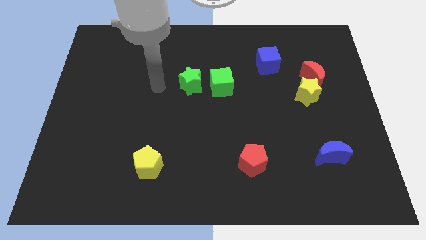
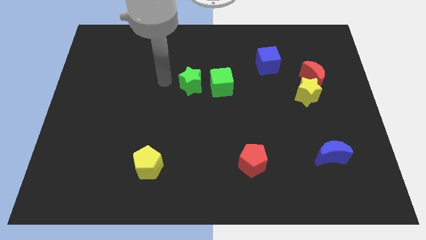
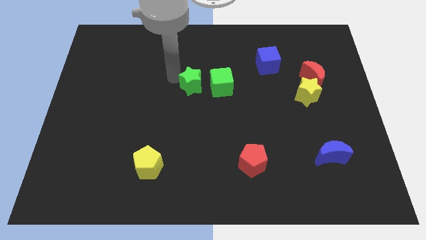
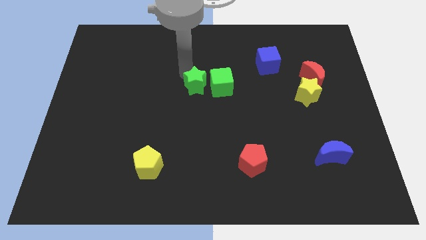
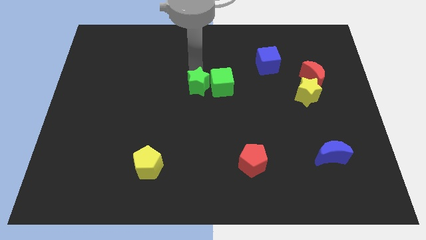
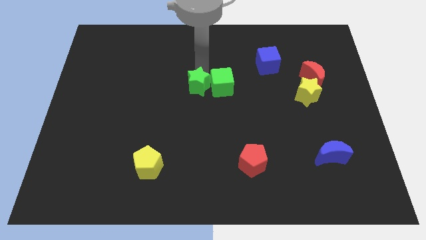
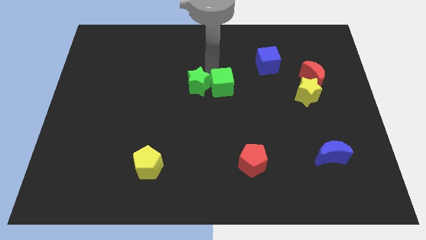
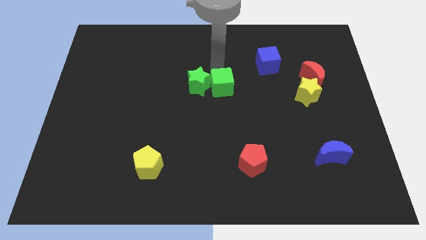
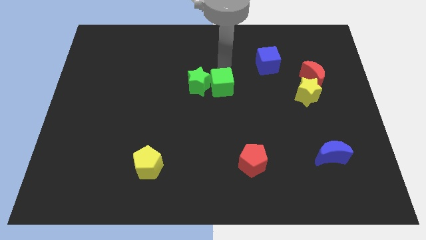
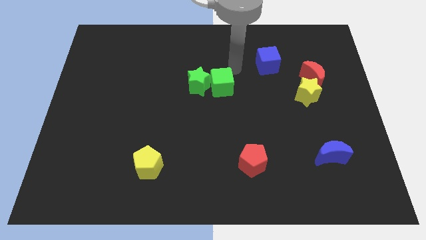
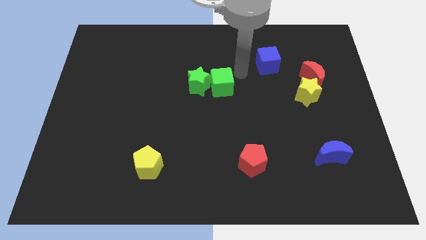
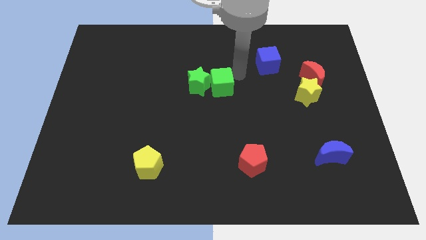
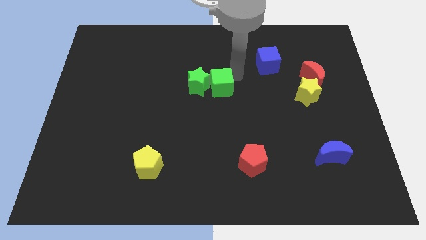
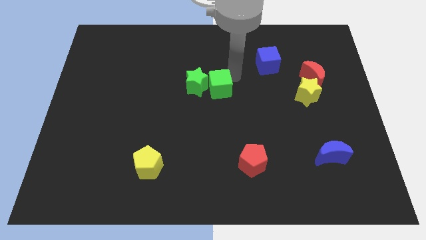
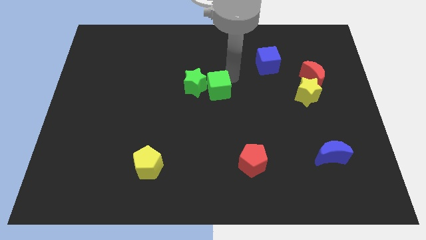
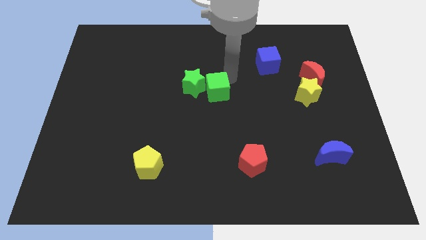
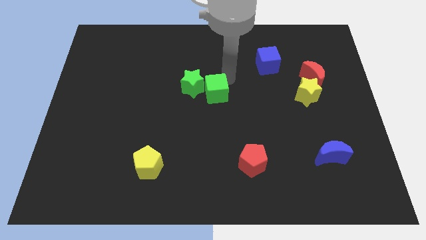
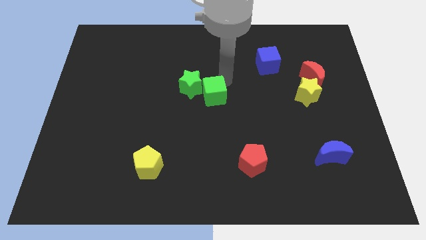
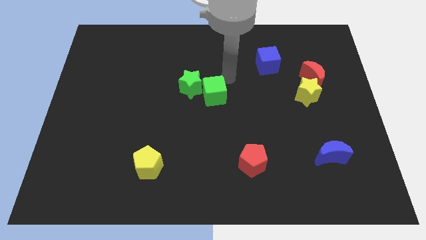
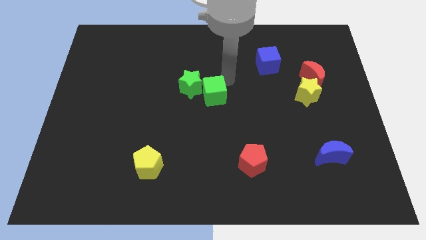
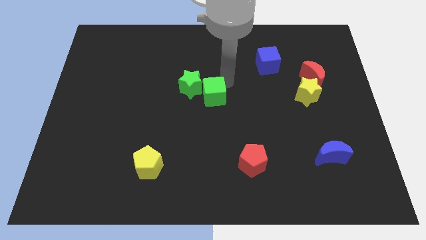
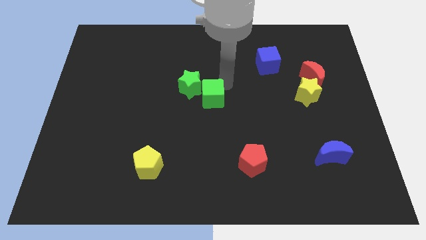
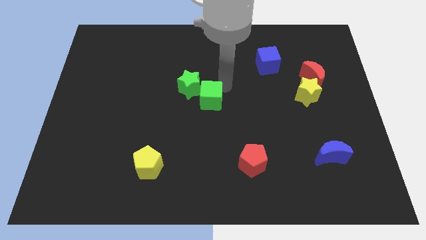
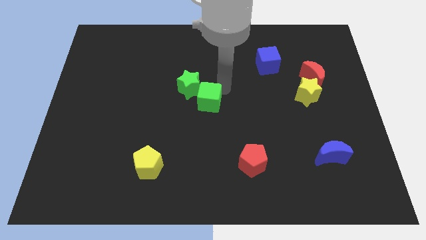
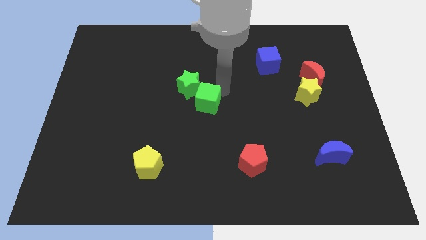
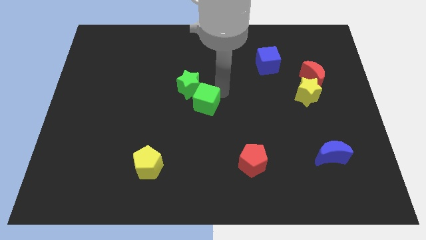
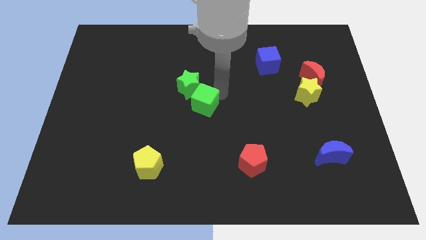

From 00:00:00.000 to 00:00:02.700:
push the green cube a bit down and left

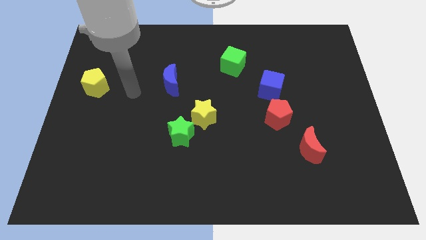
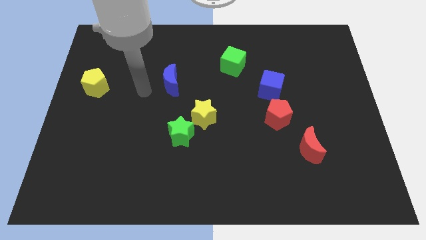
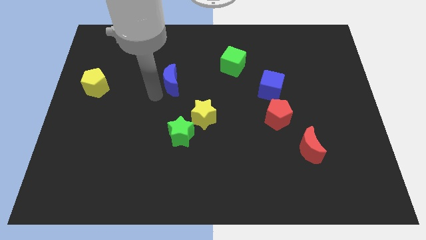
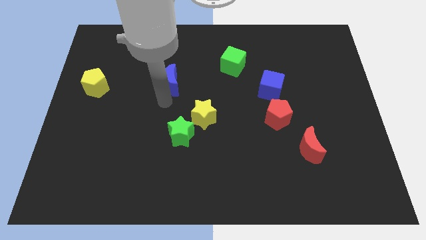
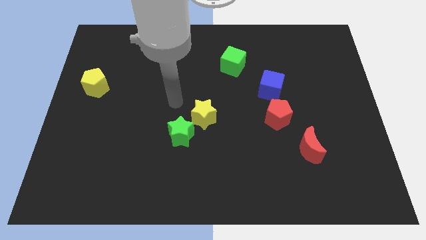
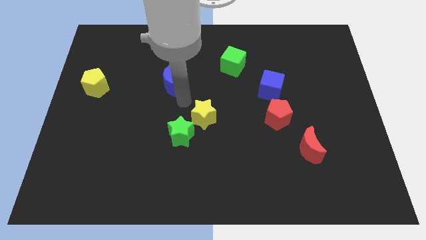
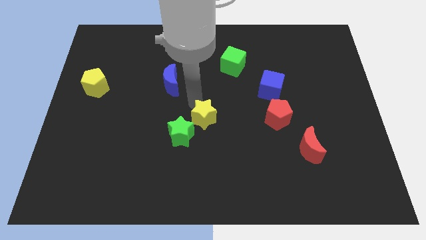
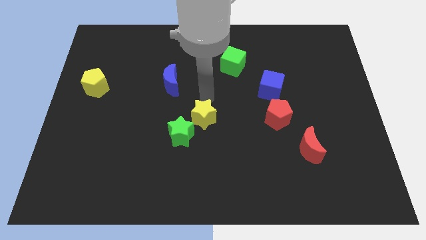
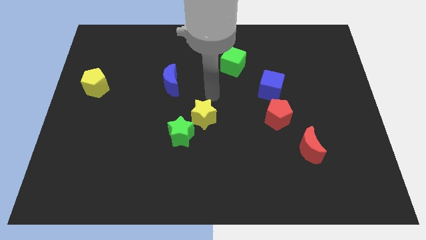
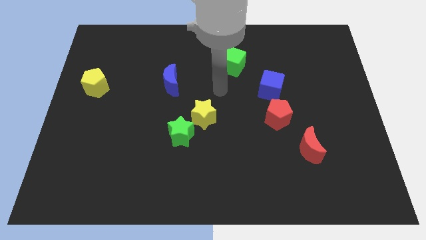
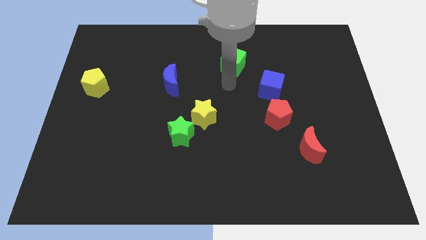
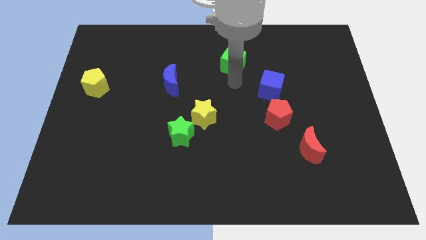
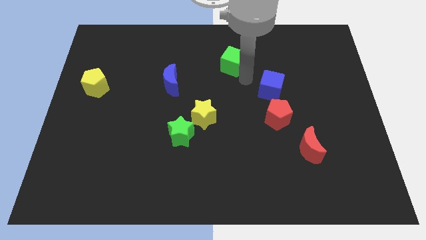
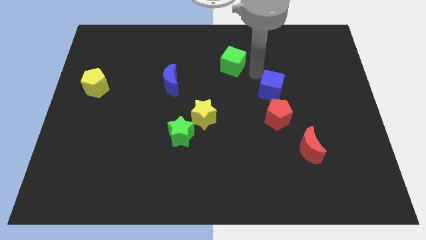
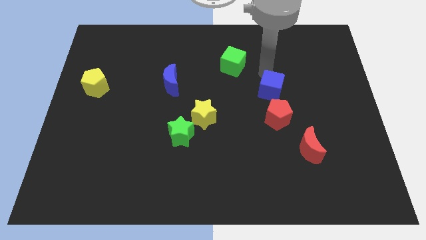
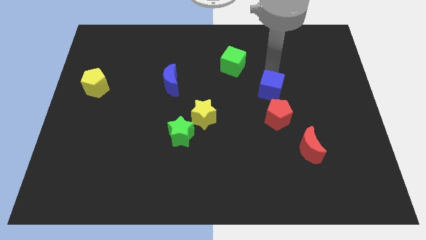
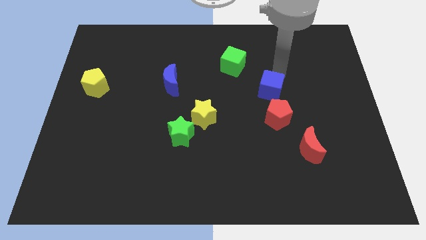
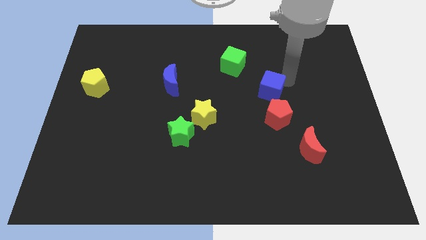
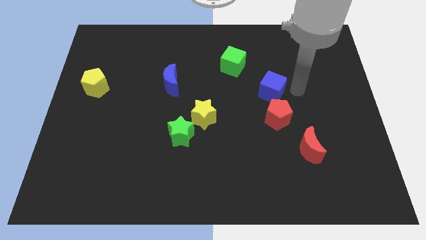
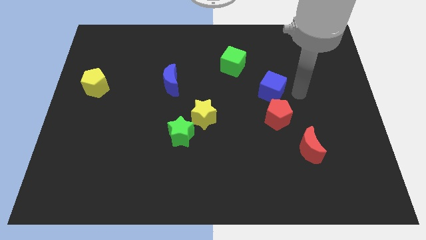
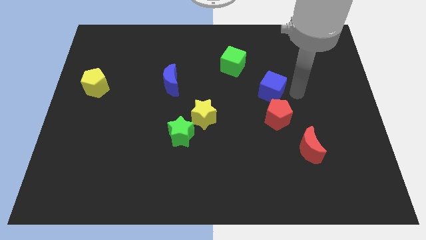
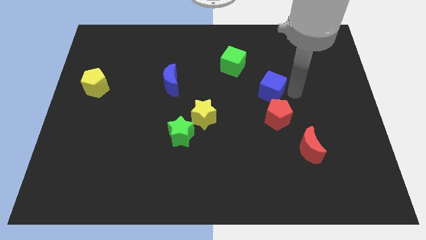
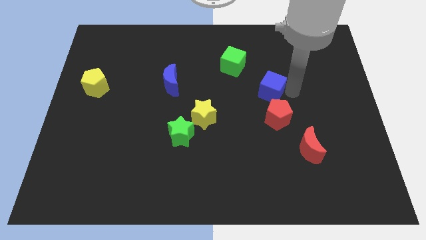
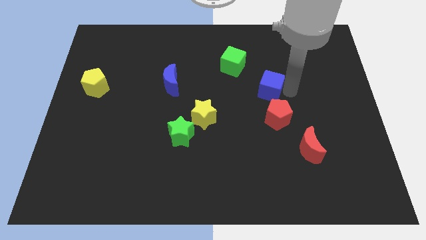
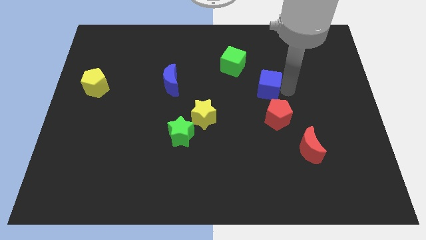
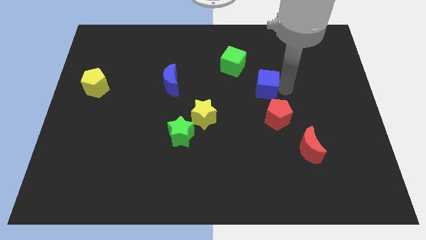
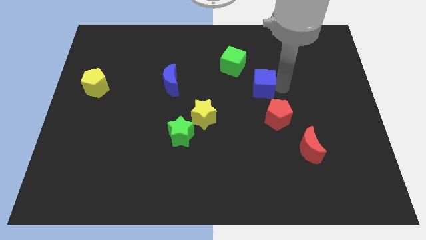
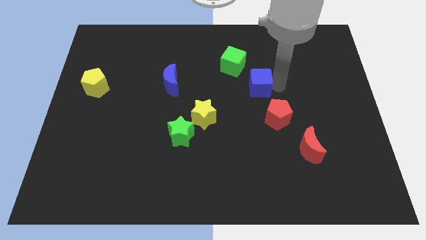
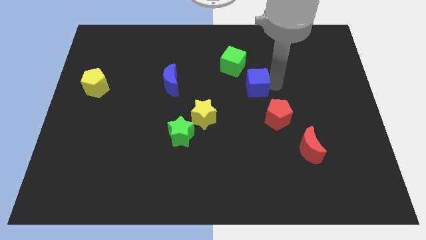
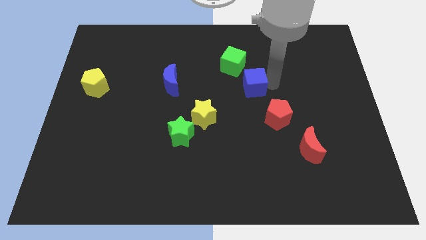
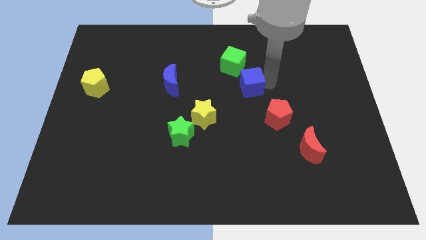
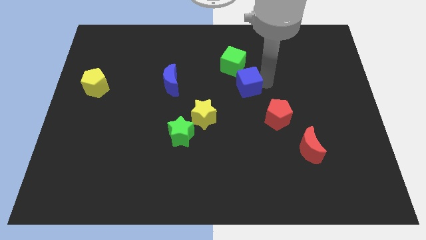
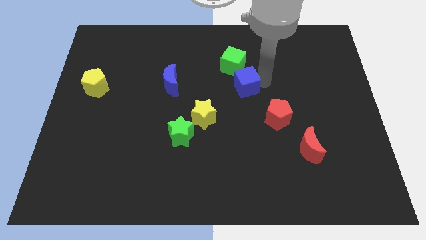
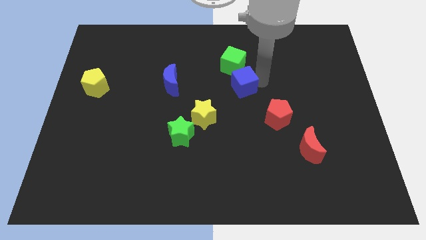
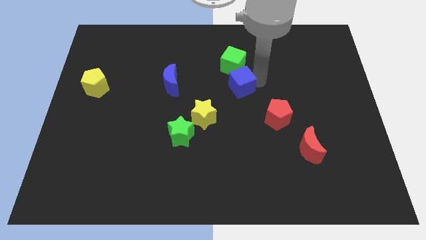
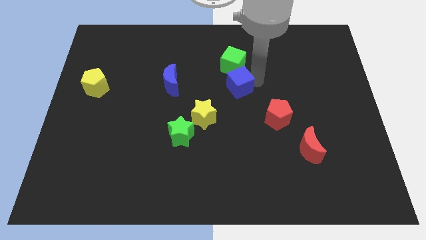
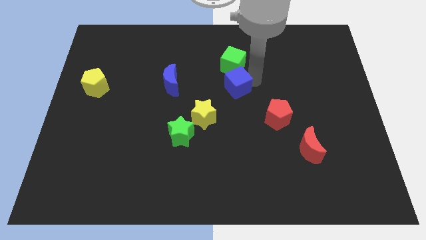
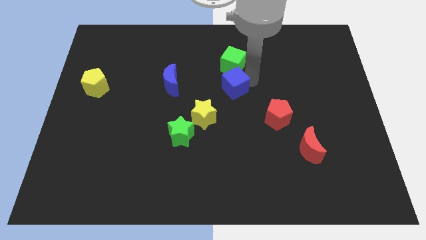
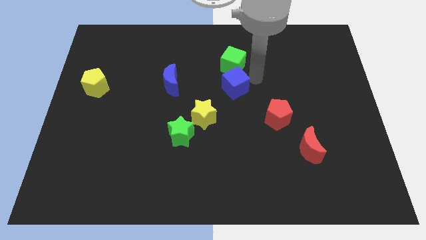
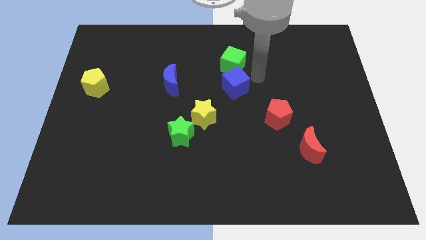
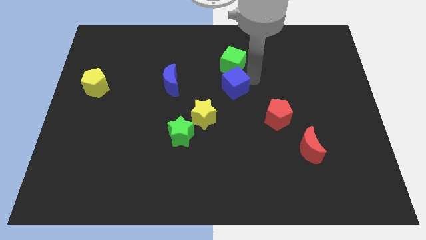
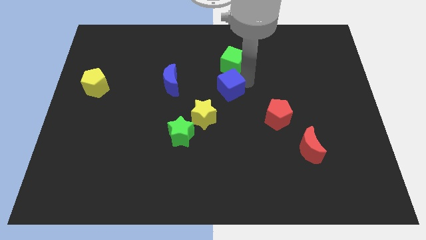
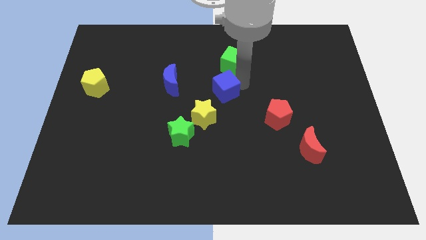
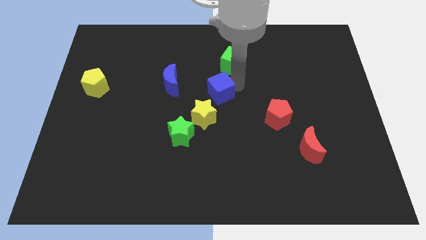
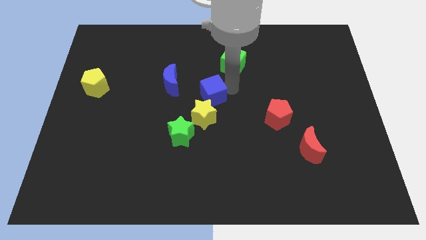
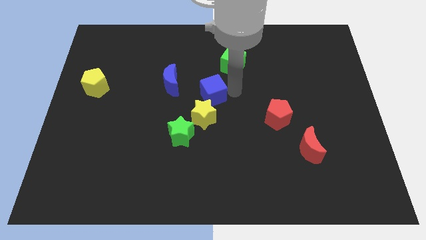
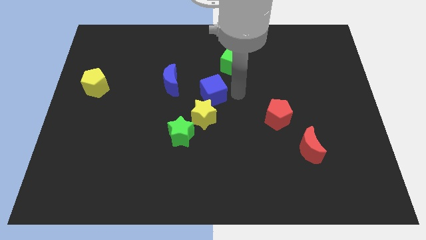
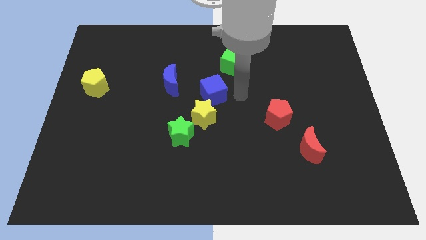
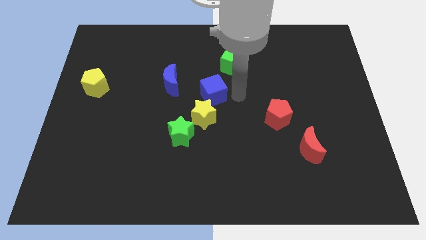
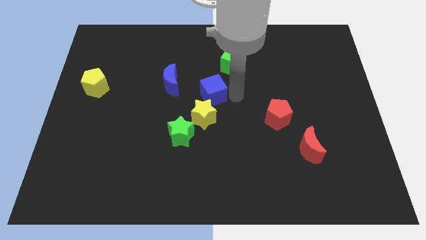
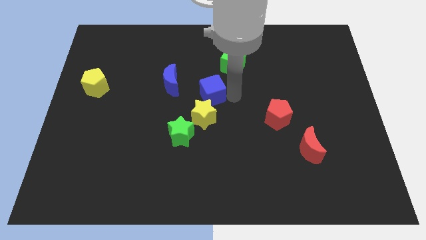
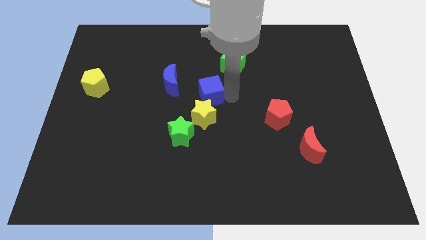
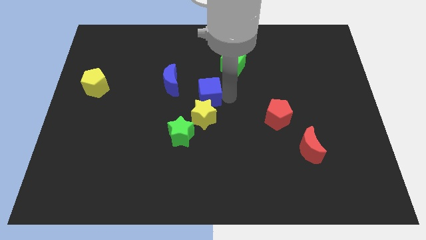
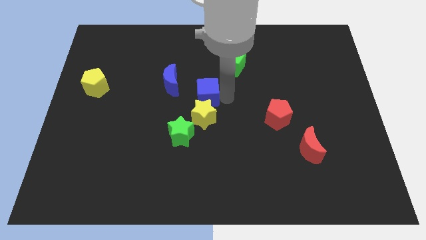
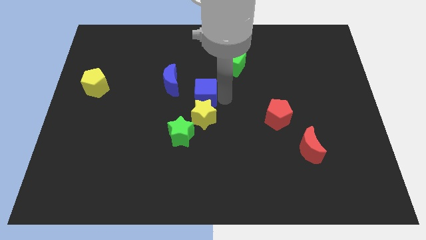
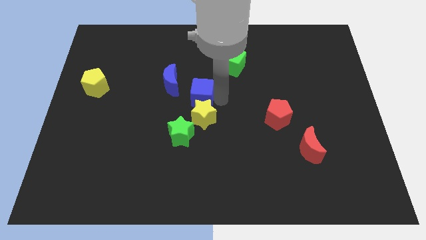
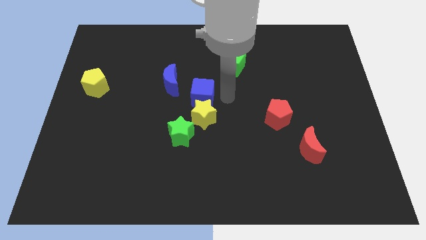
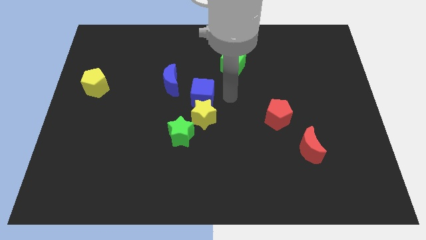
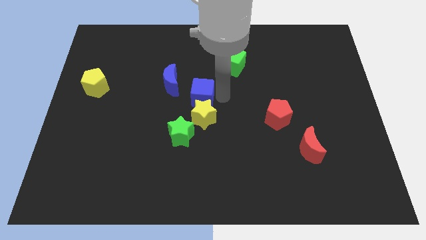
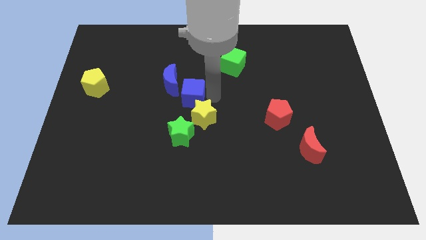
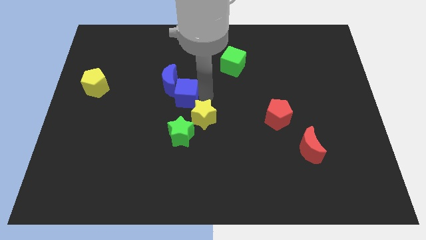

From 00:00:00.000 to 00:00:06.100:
move the blue cube left
